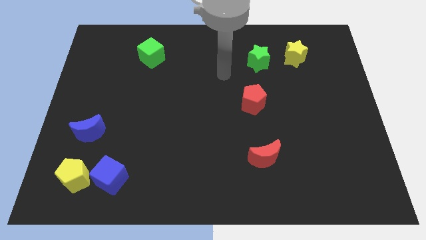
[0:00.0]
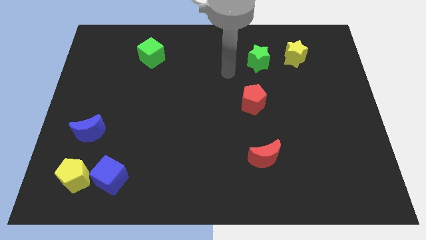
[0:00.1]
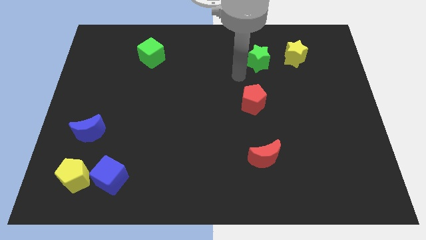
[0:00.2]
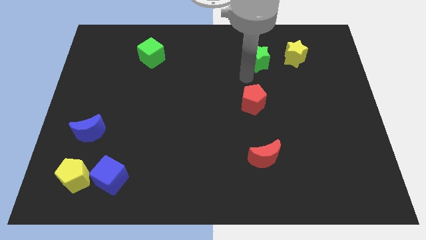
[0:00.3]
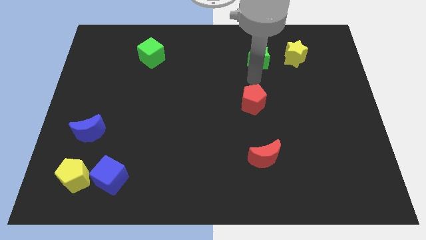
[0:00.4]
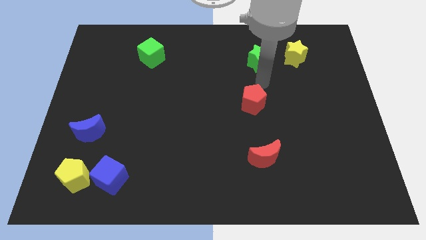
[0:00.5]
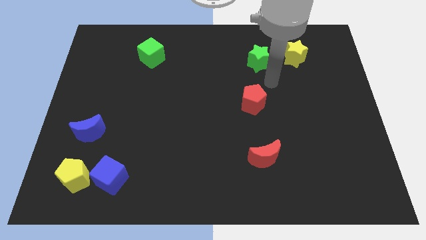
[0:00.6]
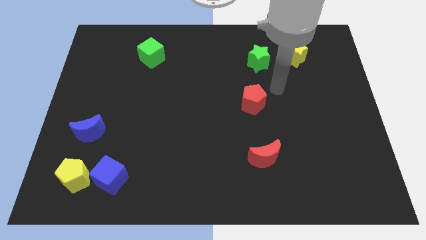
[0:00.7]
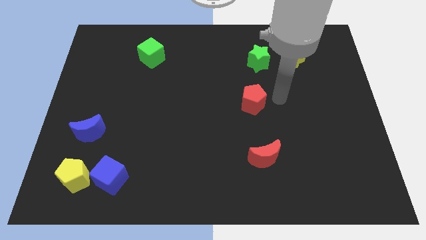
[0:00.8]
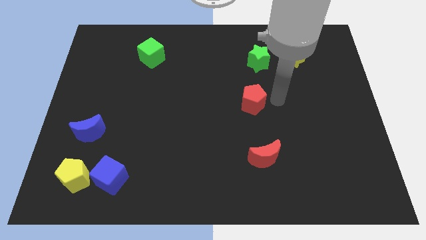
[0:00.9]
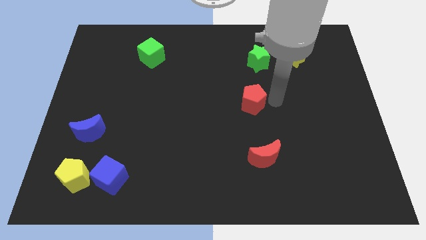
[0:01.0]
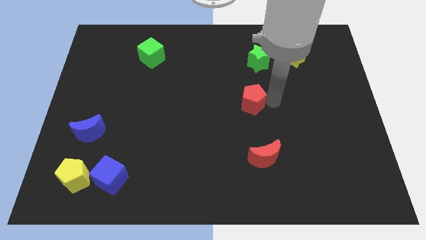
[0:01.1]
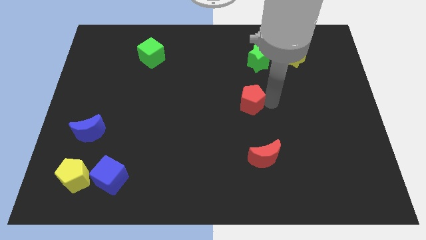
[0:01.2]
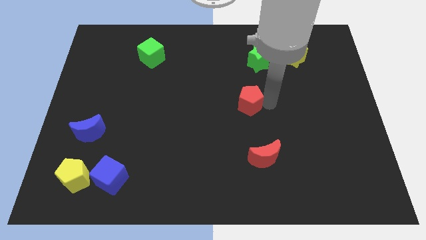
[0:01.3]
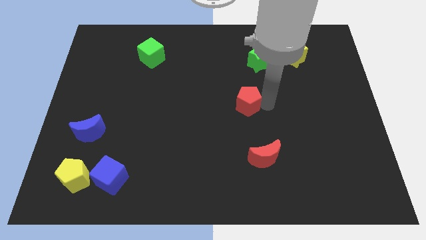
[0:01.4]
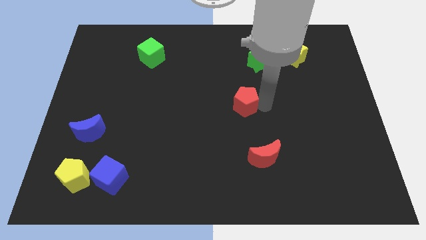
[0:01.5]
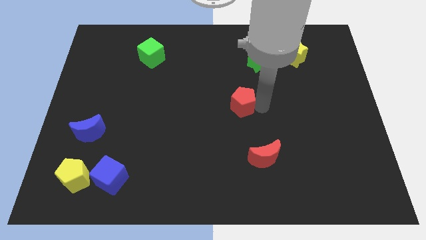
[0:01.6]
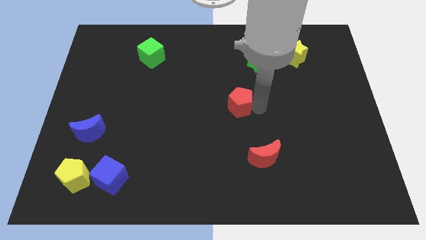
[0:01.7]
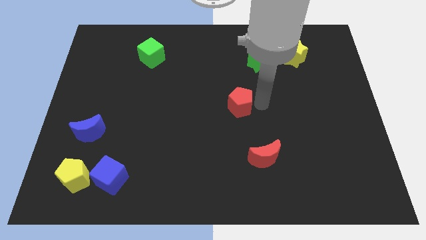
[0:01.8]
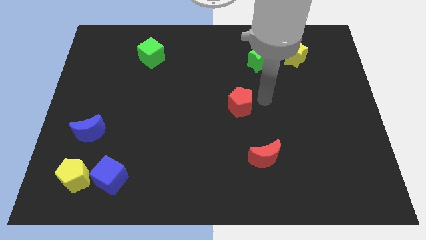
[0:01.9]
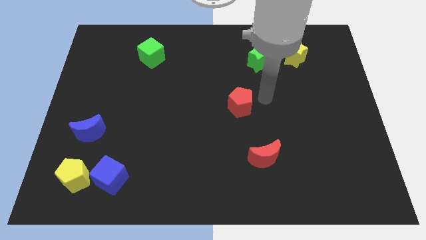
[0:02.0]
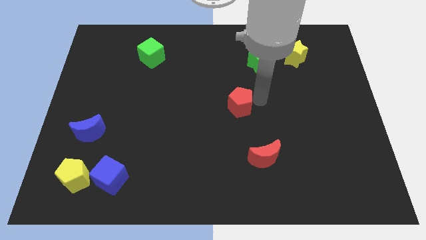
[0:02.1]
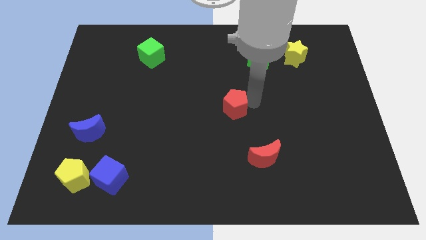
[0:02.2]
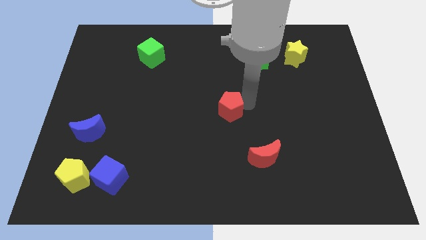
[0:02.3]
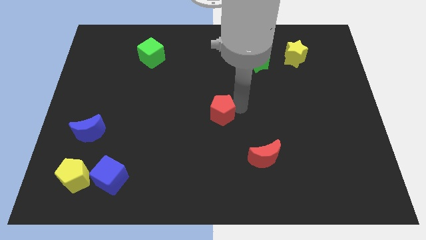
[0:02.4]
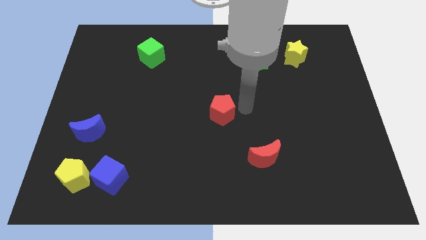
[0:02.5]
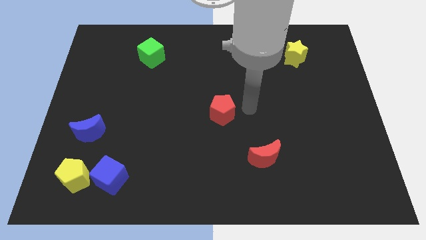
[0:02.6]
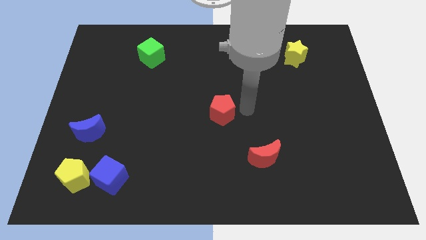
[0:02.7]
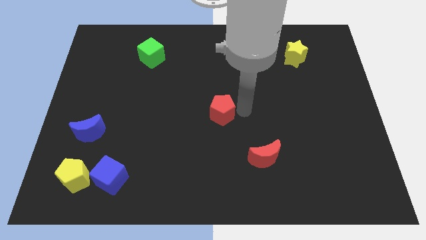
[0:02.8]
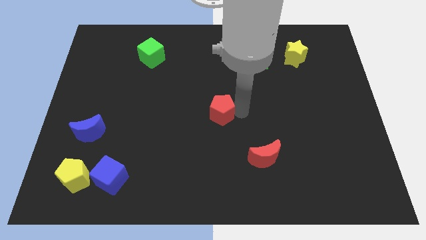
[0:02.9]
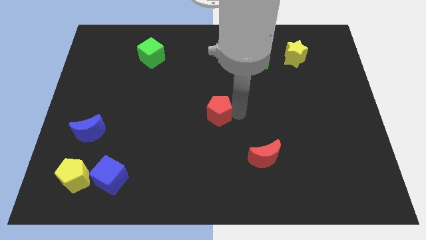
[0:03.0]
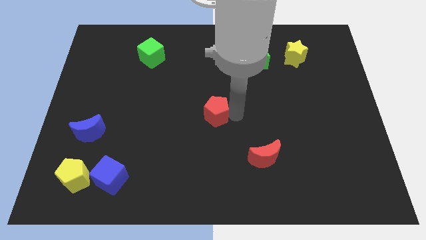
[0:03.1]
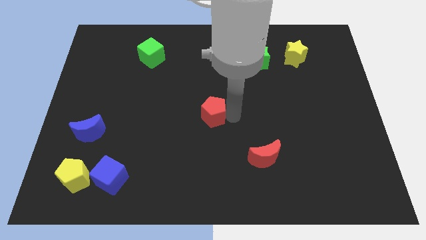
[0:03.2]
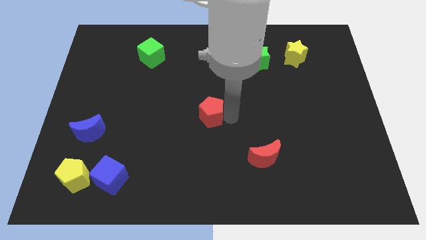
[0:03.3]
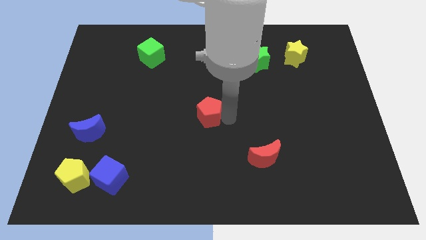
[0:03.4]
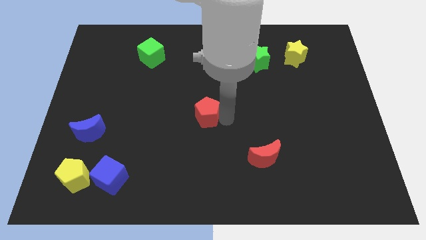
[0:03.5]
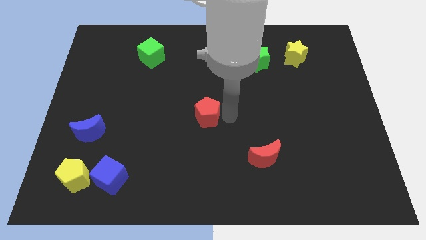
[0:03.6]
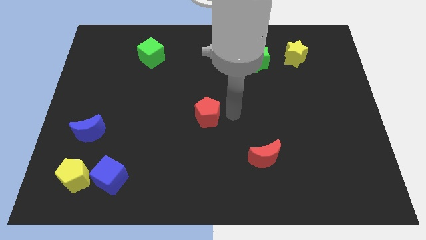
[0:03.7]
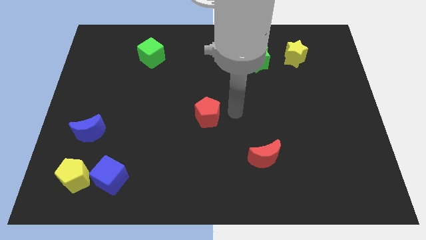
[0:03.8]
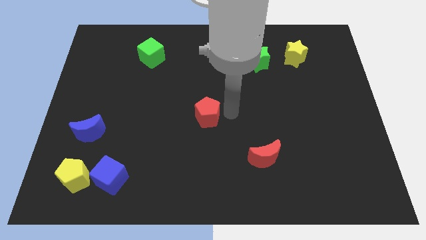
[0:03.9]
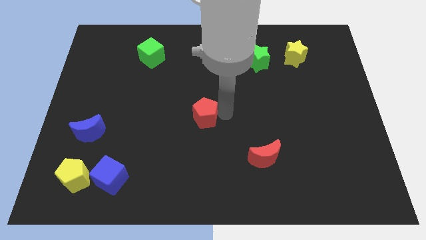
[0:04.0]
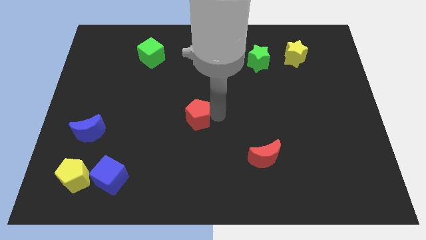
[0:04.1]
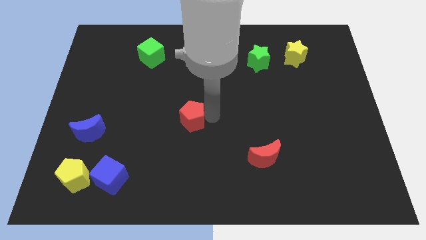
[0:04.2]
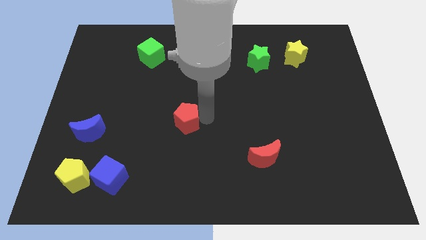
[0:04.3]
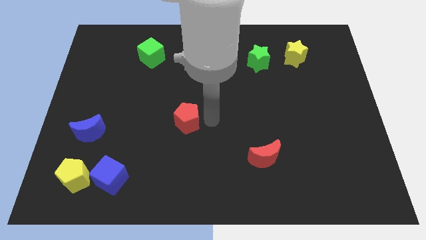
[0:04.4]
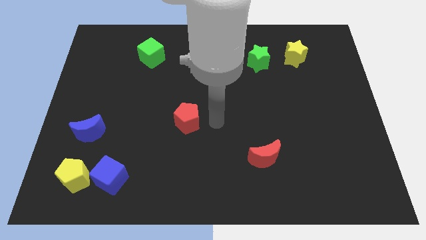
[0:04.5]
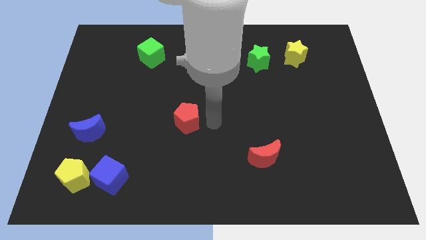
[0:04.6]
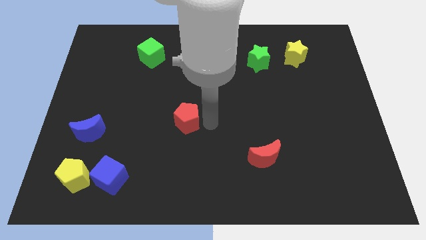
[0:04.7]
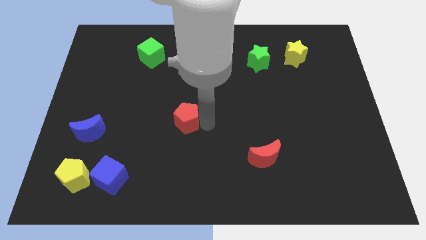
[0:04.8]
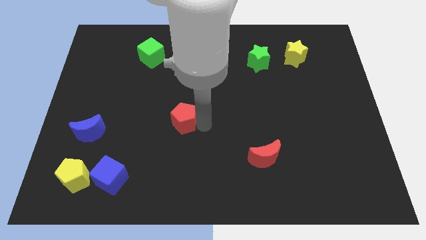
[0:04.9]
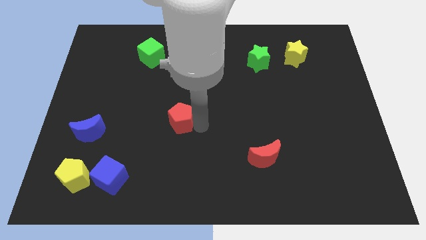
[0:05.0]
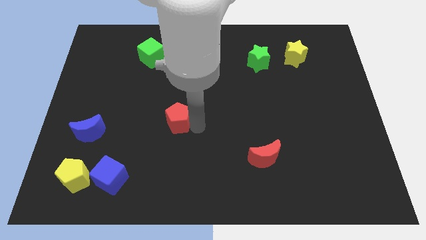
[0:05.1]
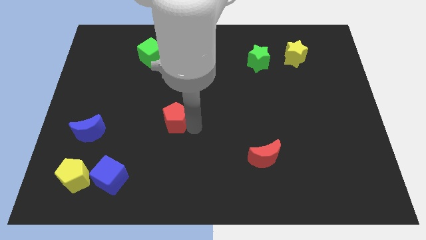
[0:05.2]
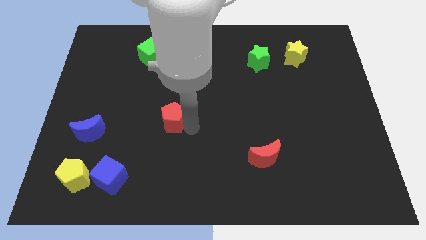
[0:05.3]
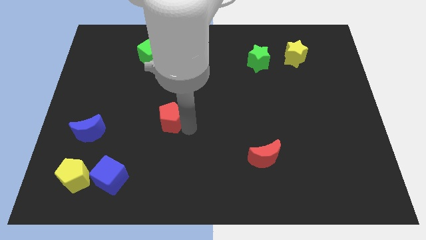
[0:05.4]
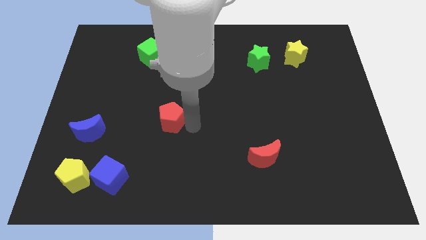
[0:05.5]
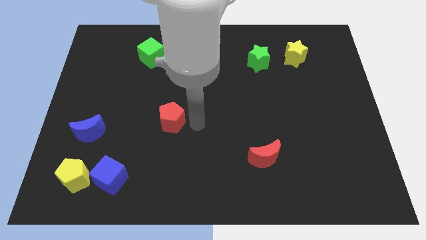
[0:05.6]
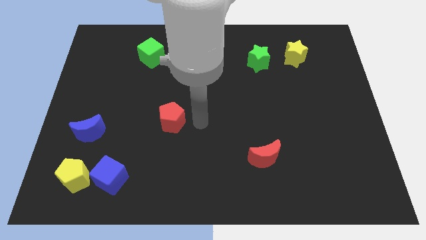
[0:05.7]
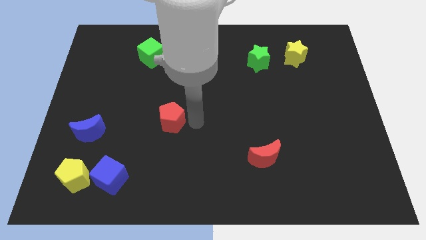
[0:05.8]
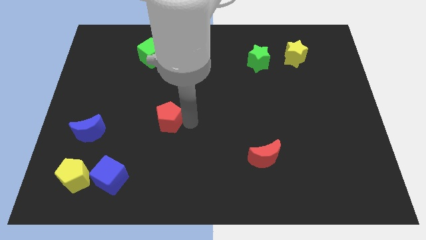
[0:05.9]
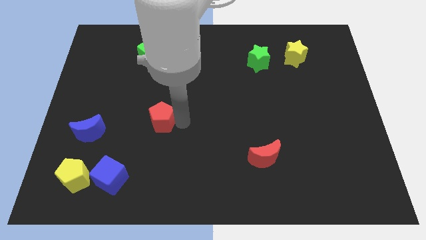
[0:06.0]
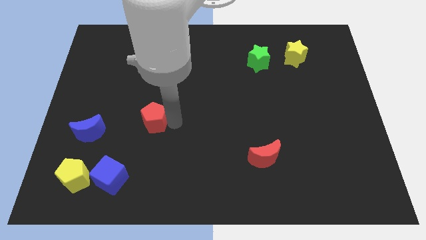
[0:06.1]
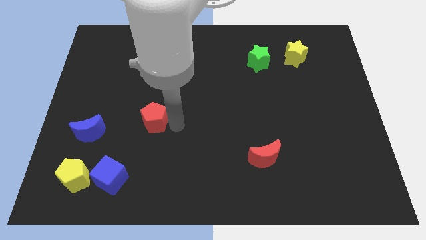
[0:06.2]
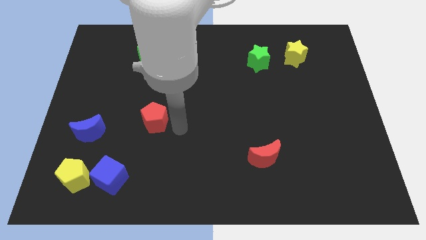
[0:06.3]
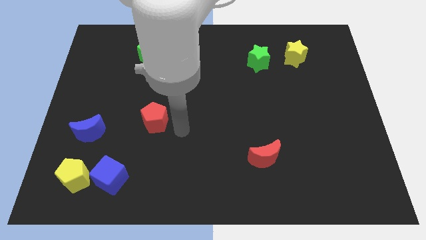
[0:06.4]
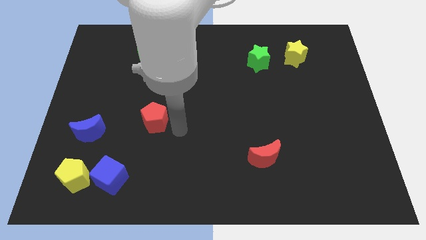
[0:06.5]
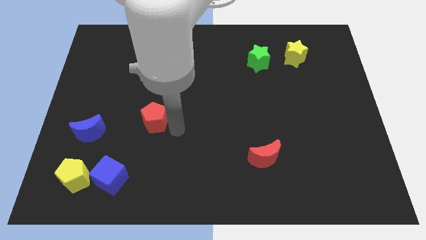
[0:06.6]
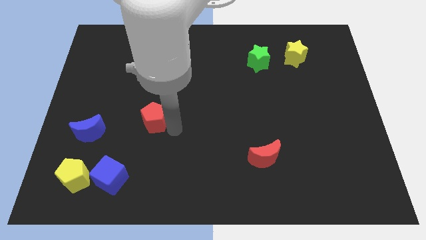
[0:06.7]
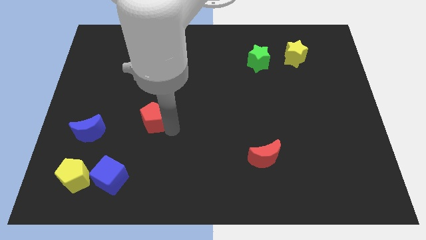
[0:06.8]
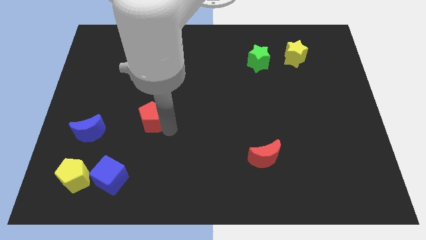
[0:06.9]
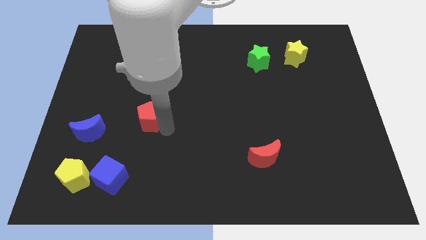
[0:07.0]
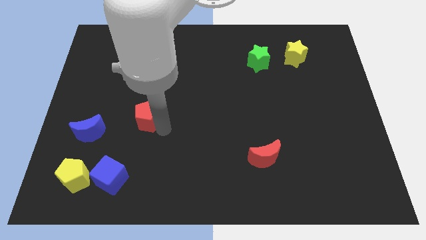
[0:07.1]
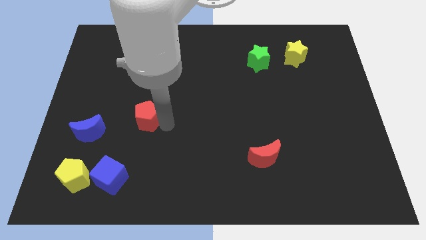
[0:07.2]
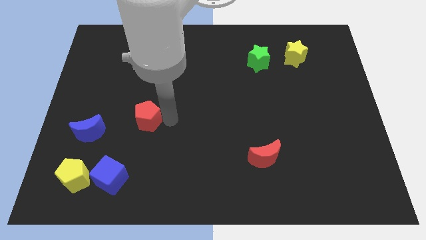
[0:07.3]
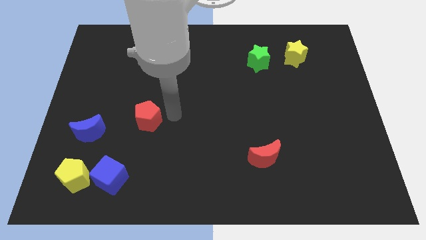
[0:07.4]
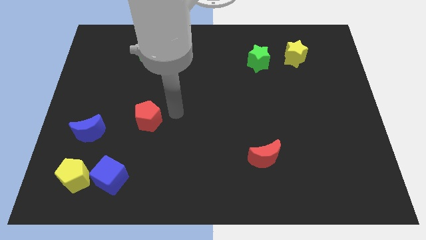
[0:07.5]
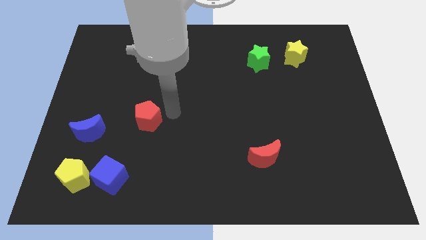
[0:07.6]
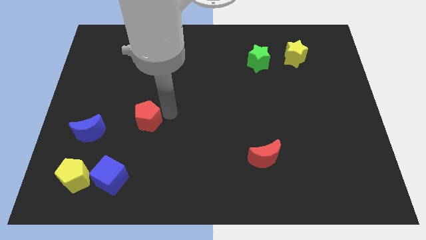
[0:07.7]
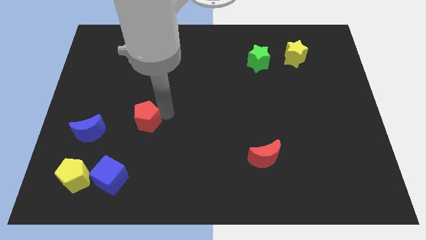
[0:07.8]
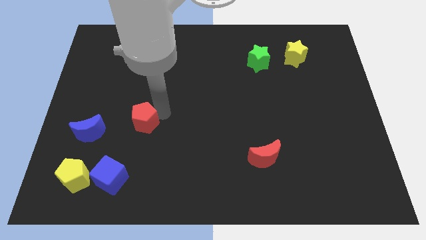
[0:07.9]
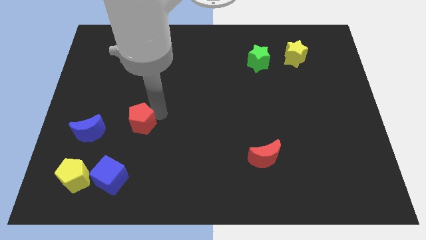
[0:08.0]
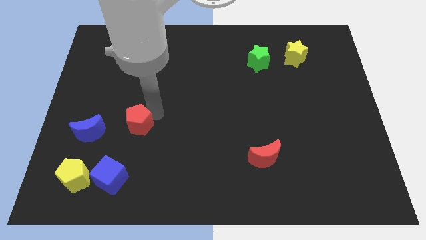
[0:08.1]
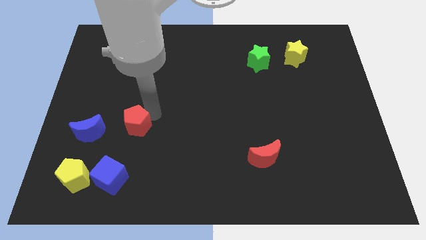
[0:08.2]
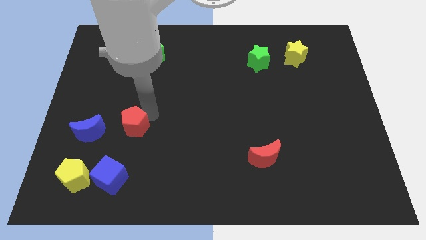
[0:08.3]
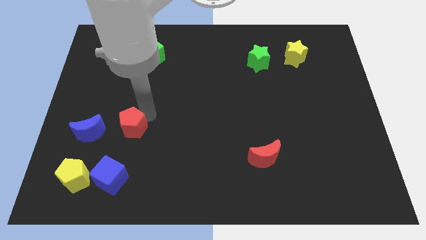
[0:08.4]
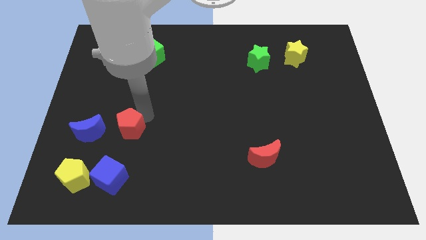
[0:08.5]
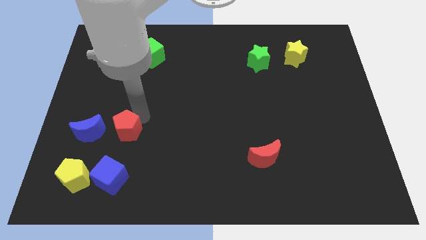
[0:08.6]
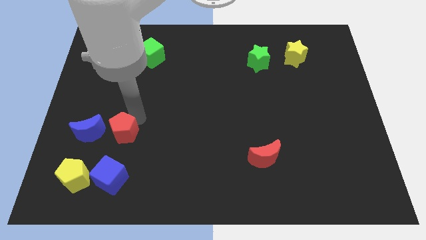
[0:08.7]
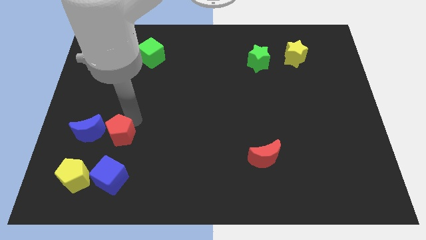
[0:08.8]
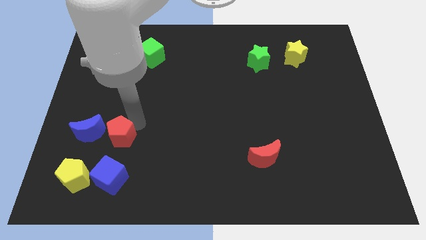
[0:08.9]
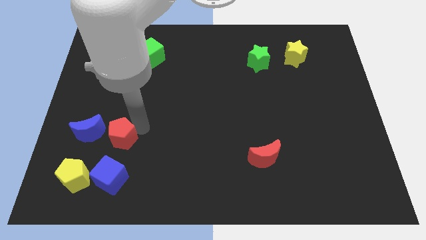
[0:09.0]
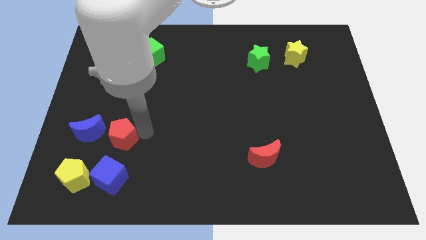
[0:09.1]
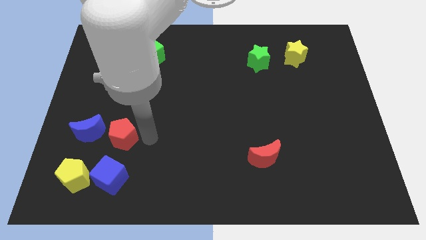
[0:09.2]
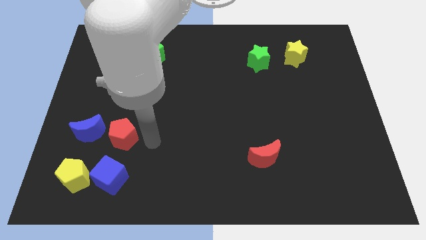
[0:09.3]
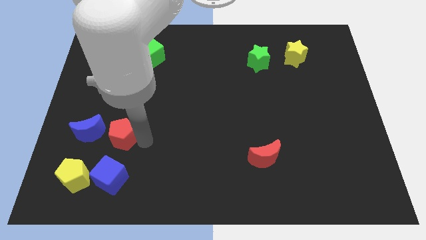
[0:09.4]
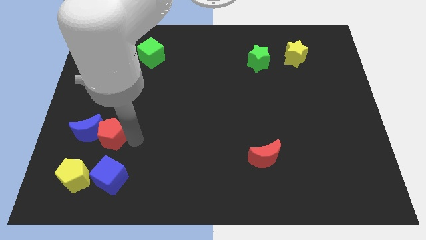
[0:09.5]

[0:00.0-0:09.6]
slide the red pentagon to the blue moon
